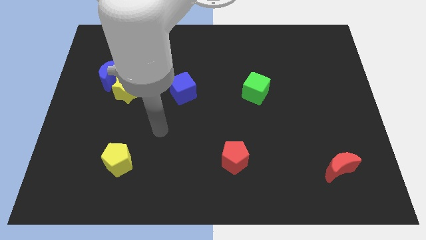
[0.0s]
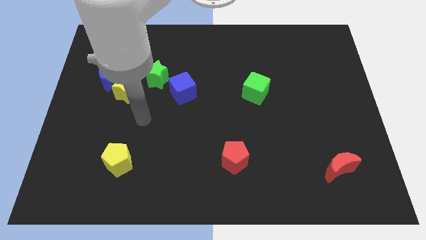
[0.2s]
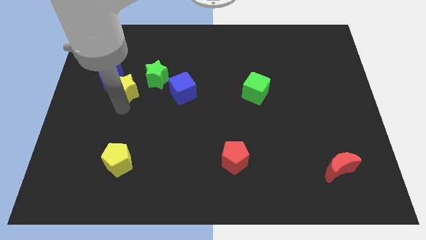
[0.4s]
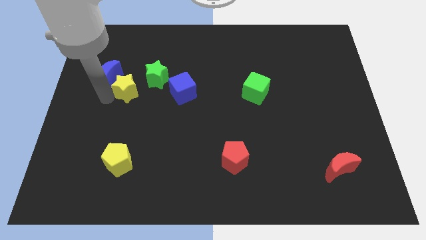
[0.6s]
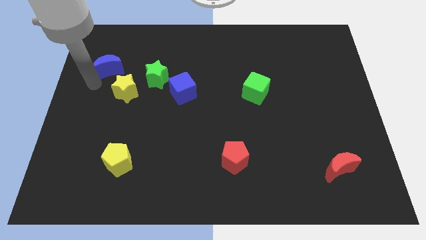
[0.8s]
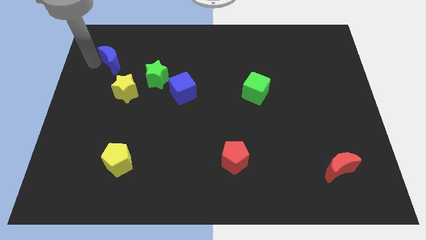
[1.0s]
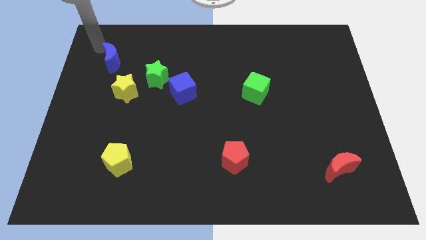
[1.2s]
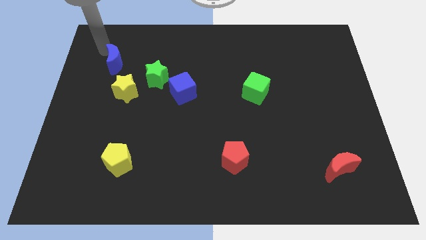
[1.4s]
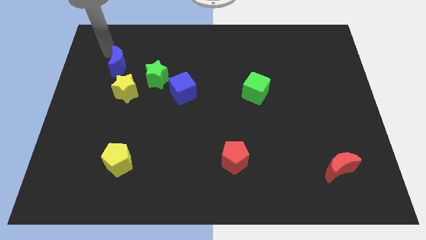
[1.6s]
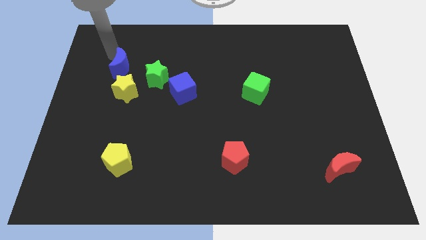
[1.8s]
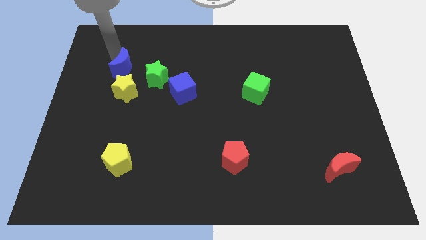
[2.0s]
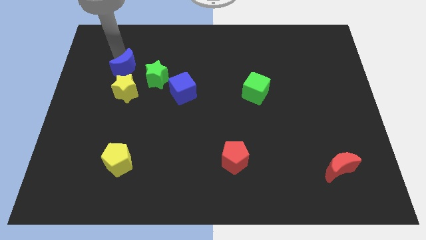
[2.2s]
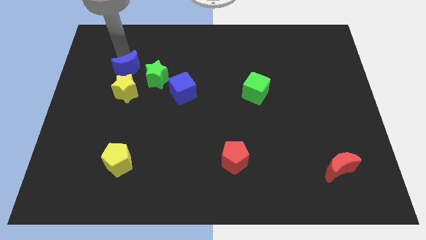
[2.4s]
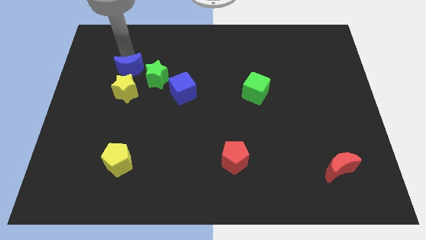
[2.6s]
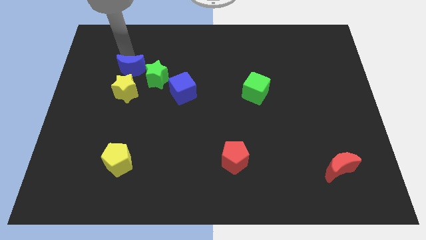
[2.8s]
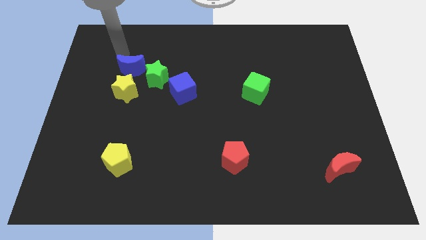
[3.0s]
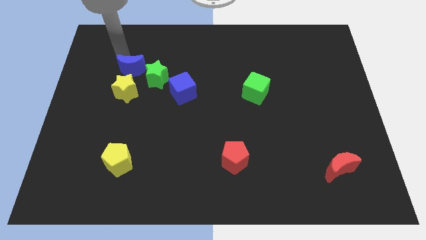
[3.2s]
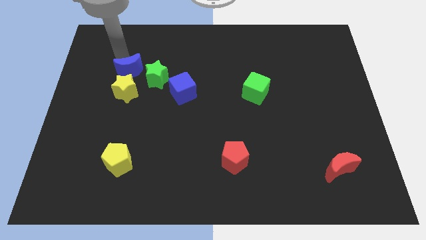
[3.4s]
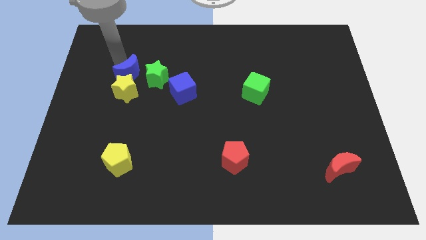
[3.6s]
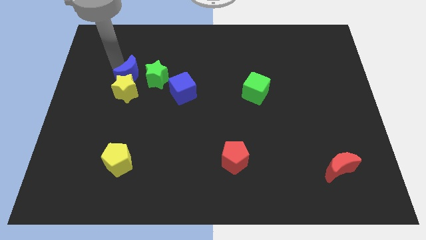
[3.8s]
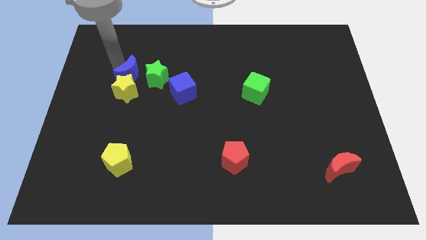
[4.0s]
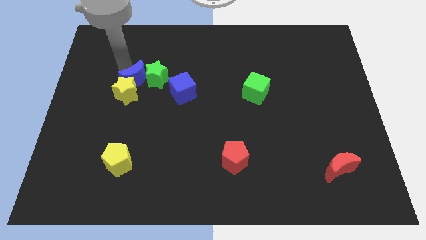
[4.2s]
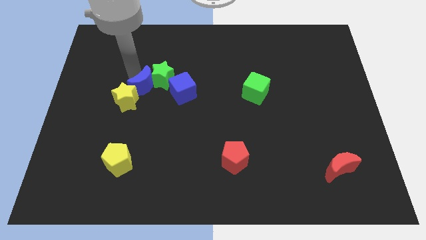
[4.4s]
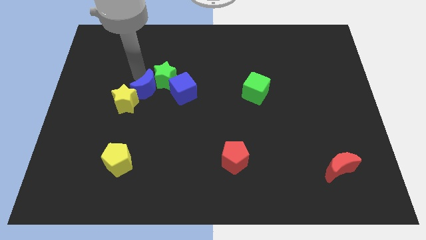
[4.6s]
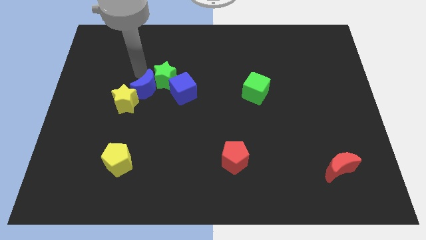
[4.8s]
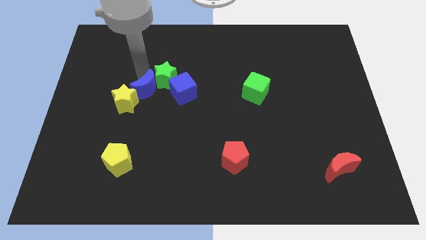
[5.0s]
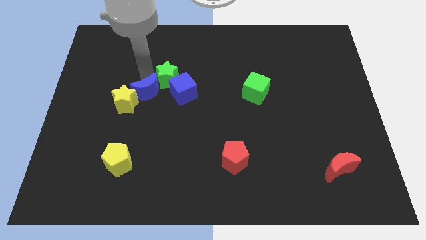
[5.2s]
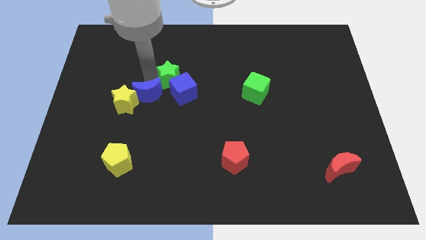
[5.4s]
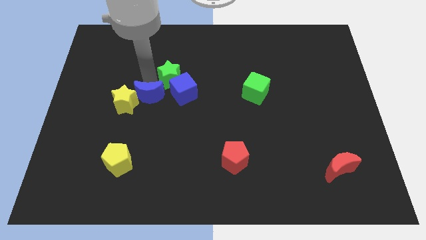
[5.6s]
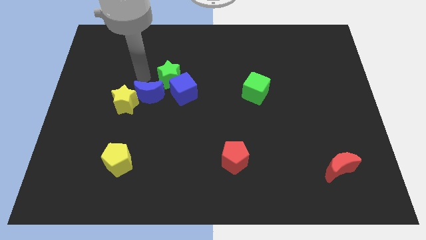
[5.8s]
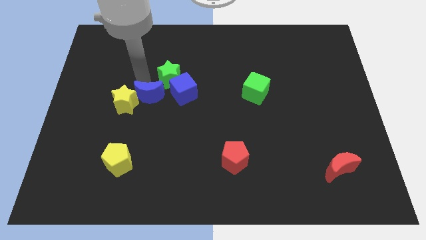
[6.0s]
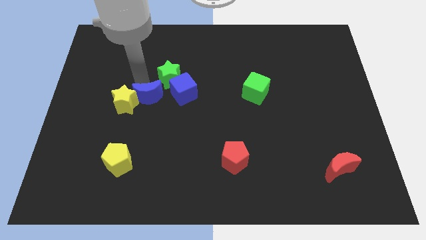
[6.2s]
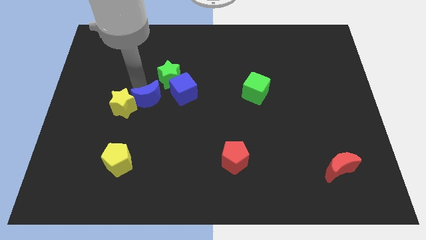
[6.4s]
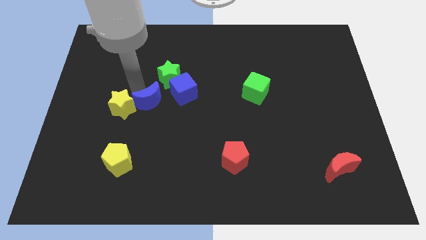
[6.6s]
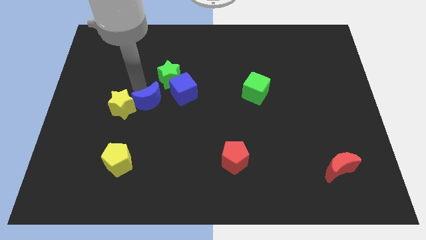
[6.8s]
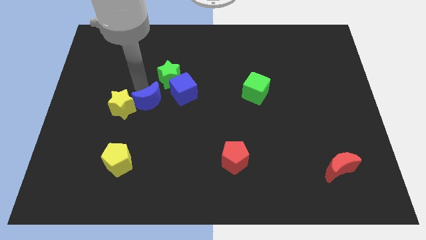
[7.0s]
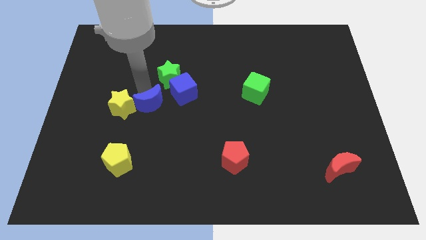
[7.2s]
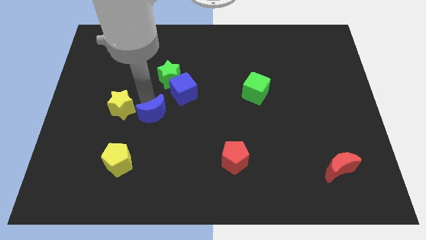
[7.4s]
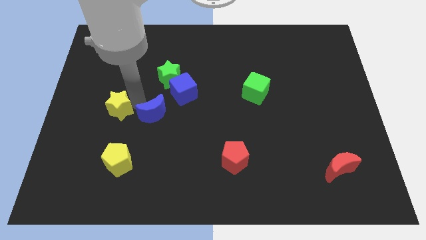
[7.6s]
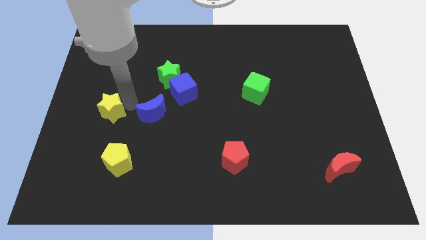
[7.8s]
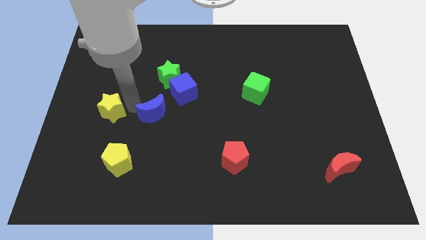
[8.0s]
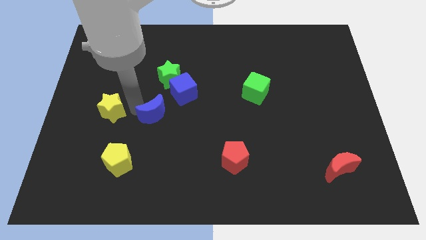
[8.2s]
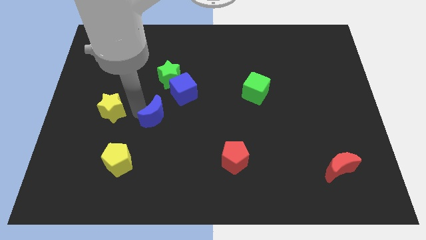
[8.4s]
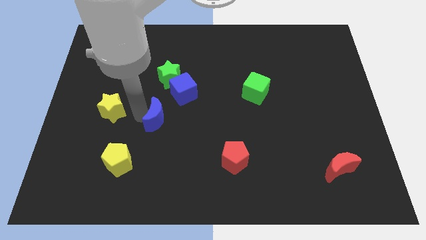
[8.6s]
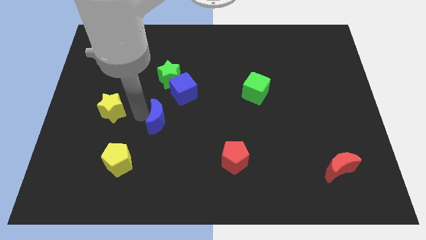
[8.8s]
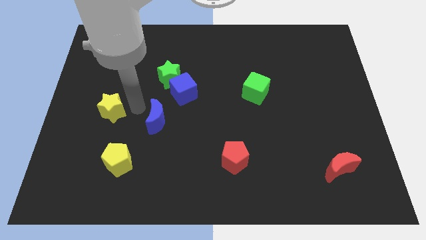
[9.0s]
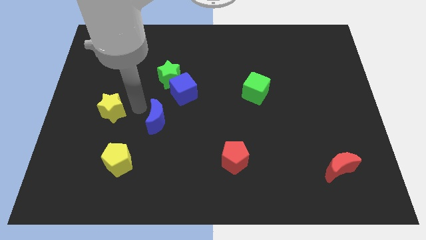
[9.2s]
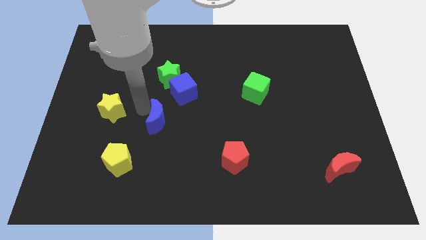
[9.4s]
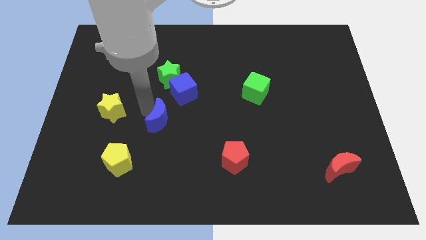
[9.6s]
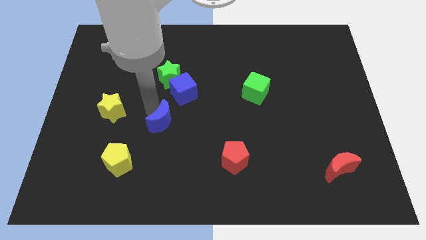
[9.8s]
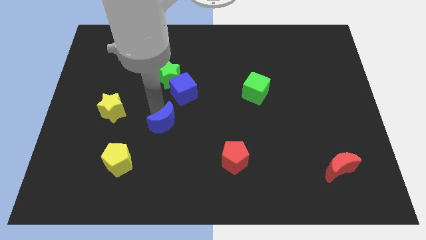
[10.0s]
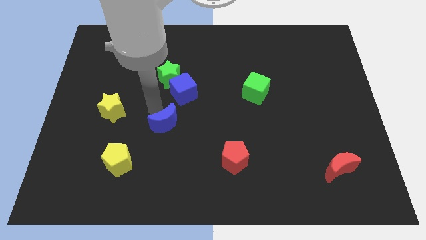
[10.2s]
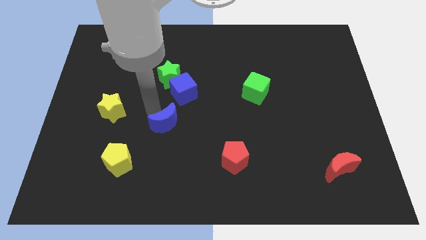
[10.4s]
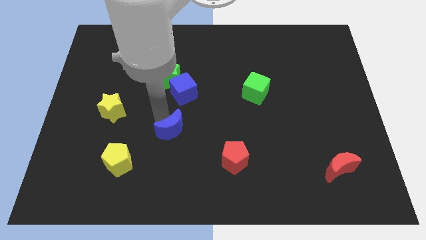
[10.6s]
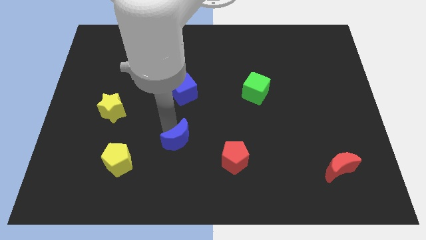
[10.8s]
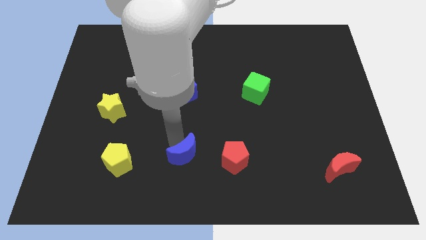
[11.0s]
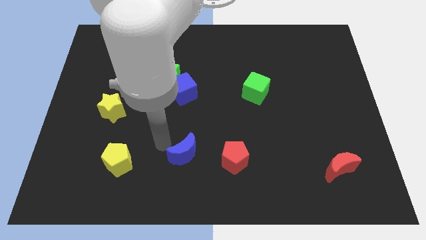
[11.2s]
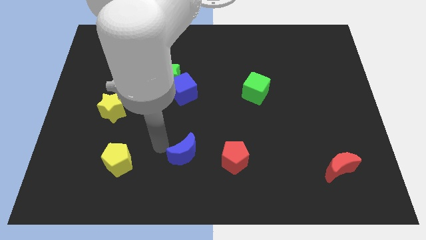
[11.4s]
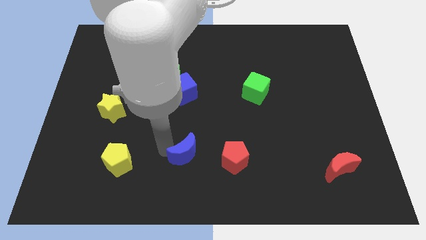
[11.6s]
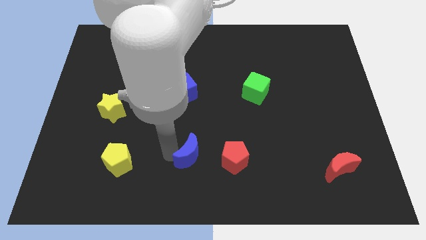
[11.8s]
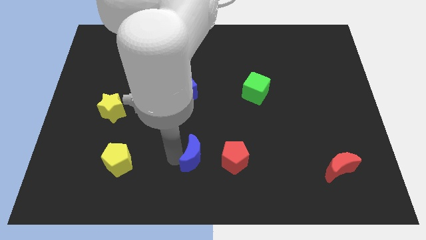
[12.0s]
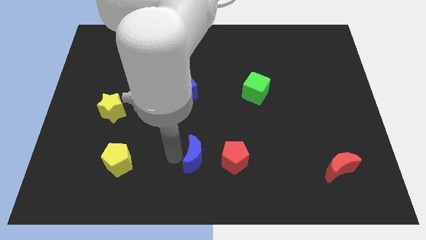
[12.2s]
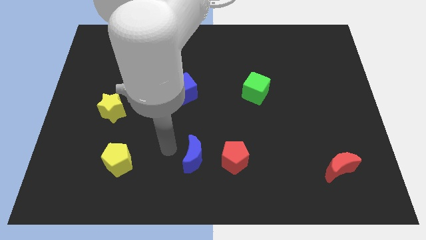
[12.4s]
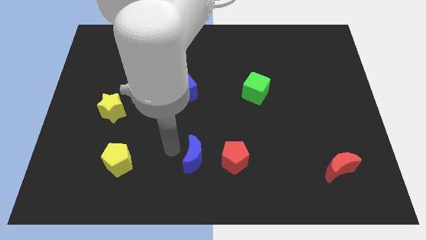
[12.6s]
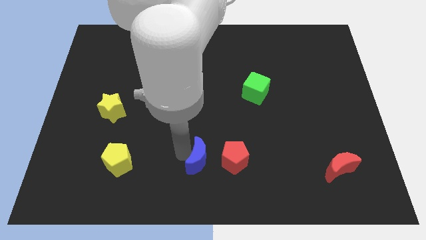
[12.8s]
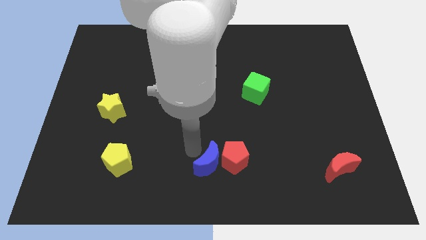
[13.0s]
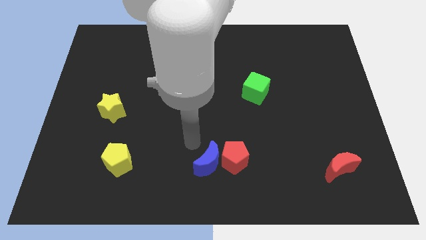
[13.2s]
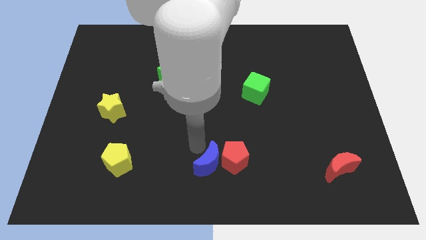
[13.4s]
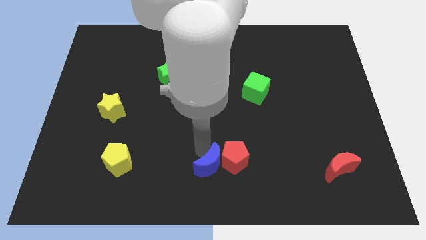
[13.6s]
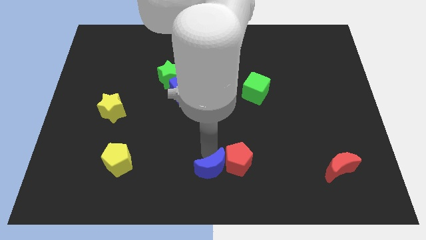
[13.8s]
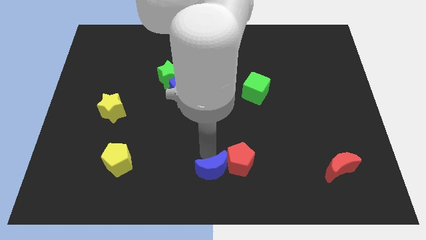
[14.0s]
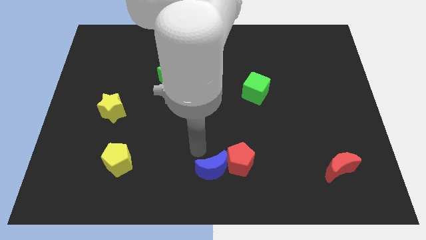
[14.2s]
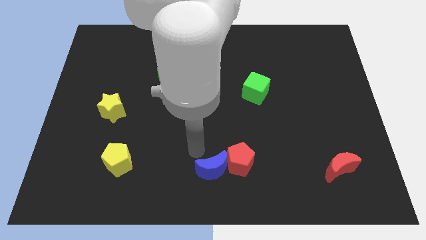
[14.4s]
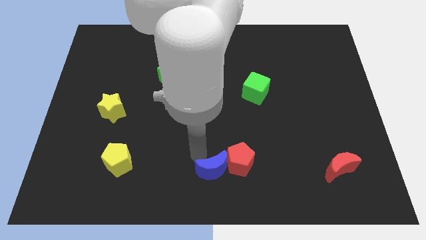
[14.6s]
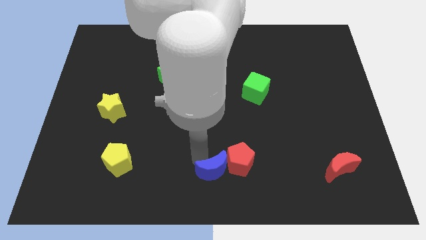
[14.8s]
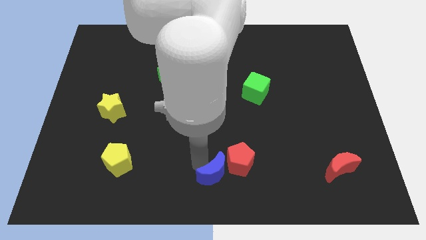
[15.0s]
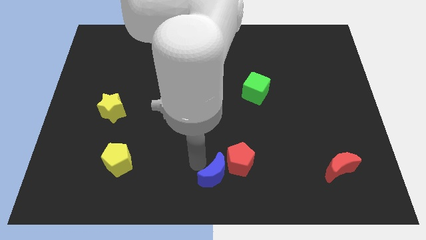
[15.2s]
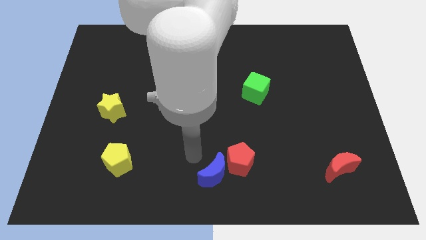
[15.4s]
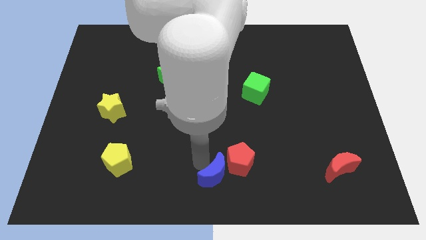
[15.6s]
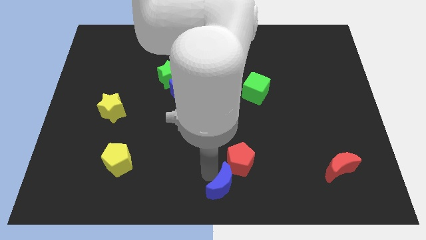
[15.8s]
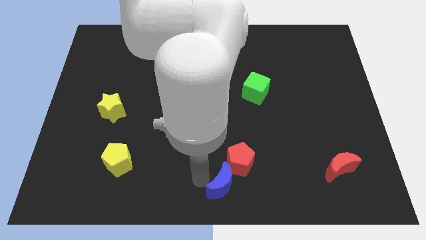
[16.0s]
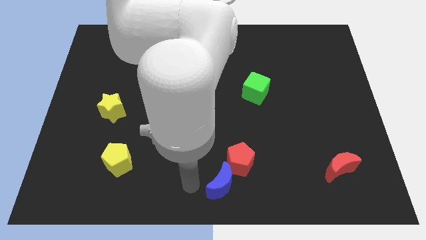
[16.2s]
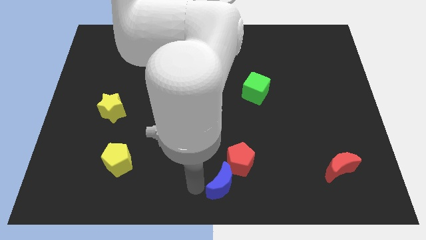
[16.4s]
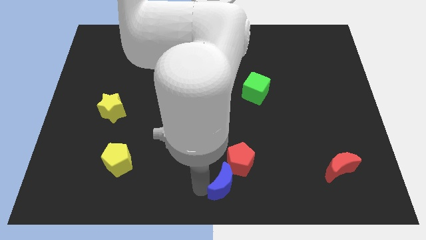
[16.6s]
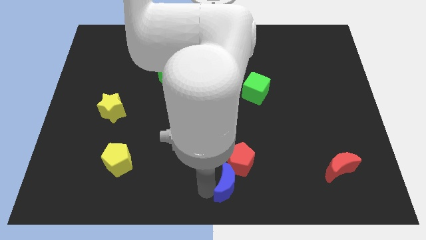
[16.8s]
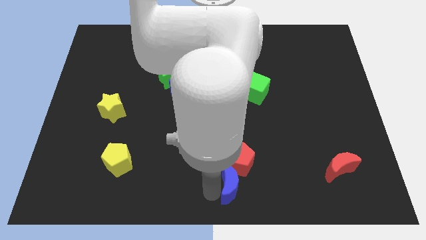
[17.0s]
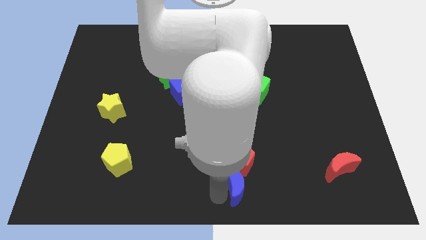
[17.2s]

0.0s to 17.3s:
move the blue moon to the bottom right of the red pentagon
